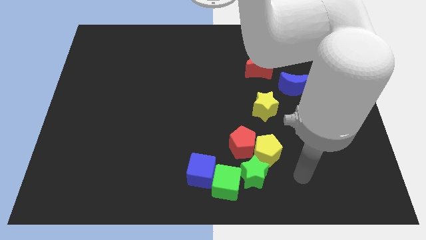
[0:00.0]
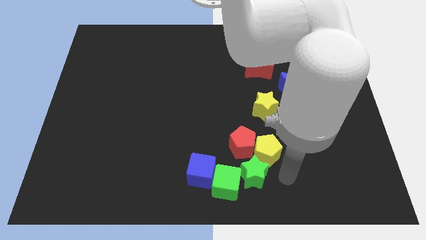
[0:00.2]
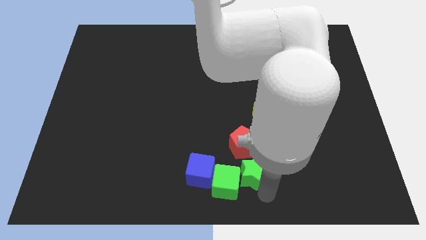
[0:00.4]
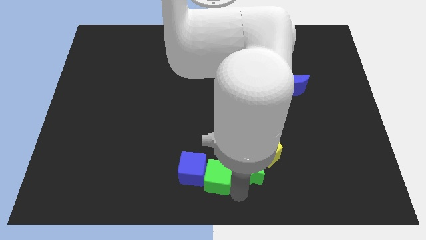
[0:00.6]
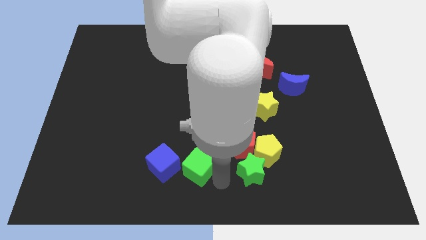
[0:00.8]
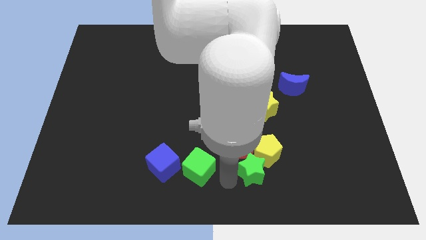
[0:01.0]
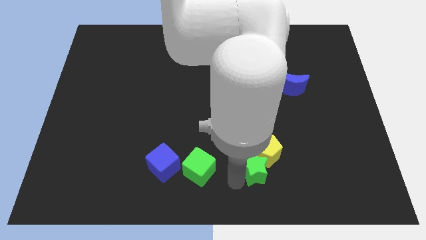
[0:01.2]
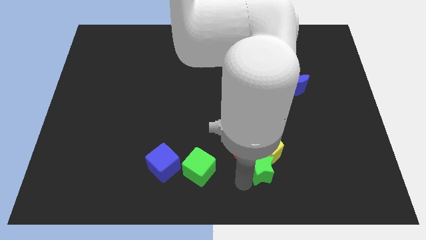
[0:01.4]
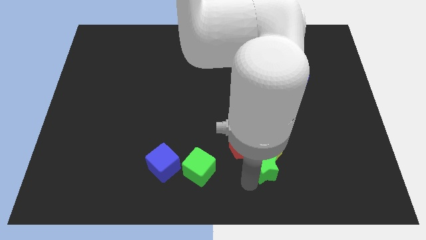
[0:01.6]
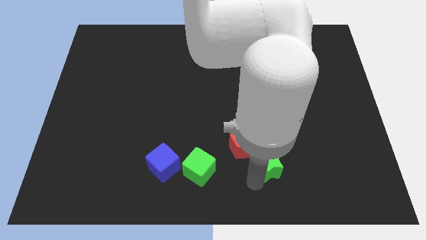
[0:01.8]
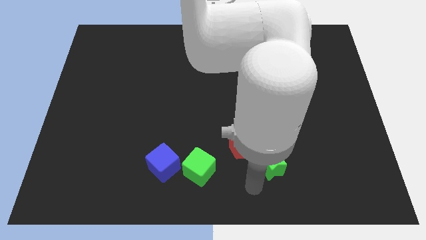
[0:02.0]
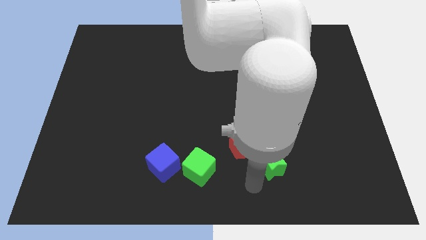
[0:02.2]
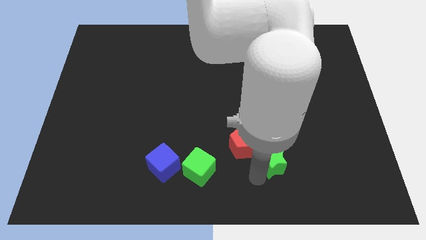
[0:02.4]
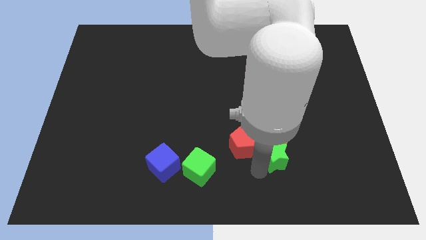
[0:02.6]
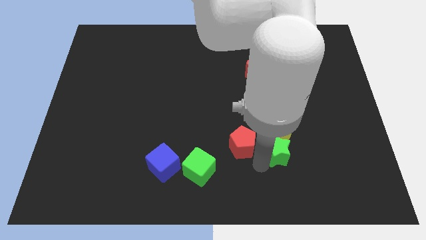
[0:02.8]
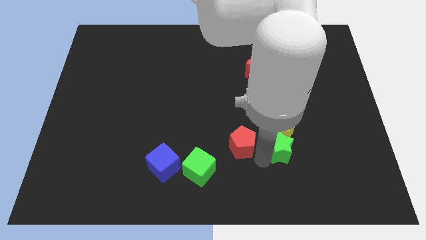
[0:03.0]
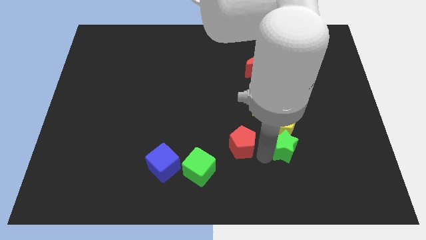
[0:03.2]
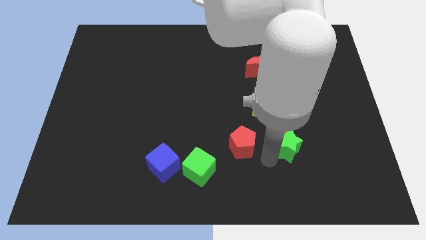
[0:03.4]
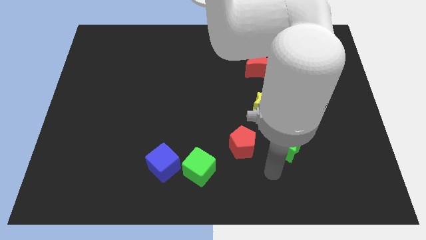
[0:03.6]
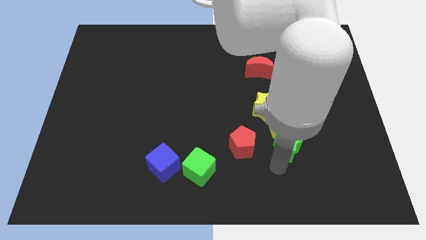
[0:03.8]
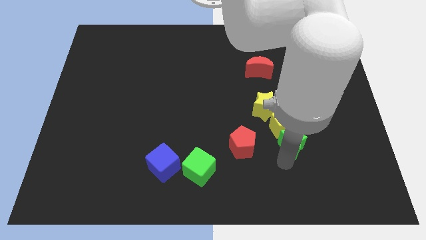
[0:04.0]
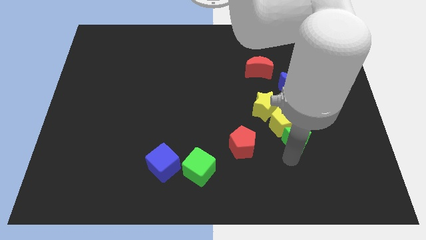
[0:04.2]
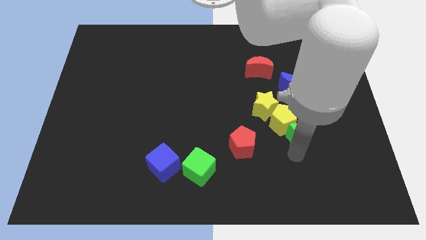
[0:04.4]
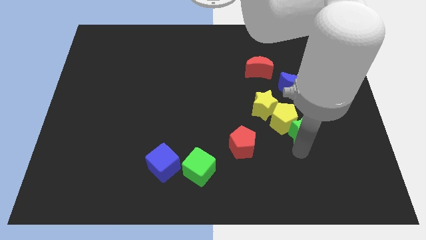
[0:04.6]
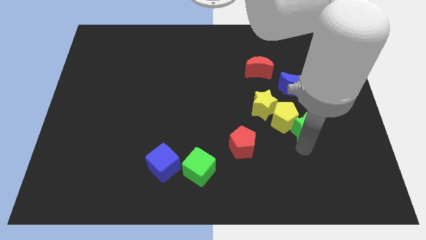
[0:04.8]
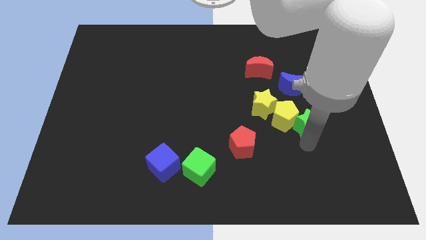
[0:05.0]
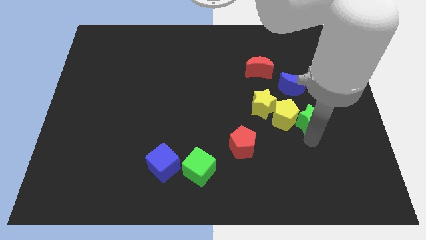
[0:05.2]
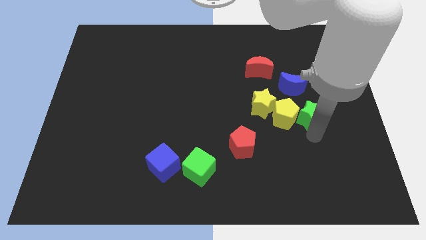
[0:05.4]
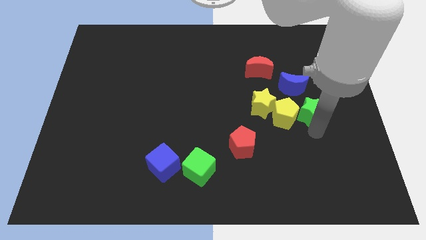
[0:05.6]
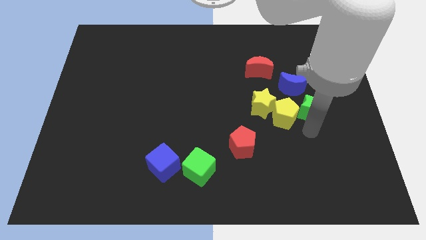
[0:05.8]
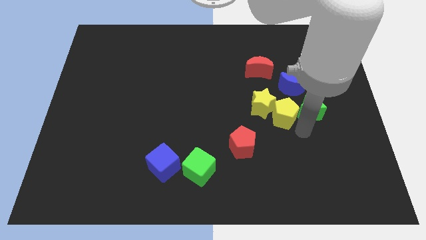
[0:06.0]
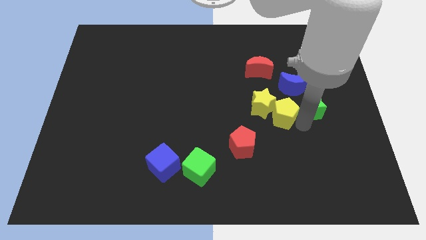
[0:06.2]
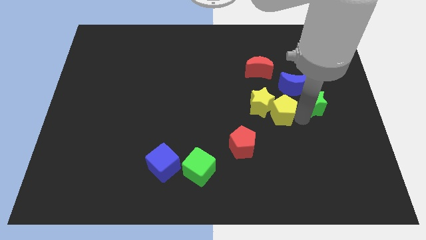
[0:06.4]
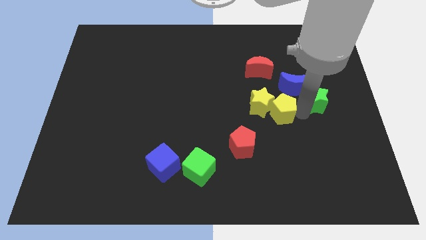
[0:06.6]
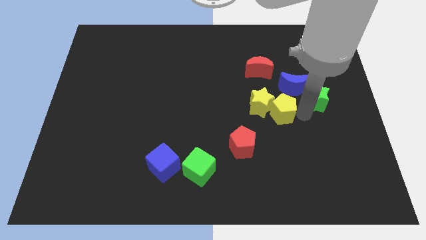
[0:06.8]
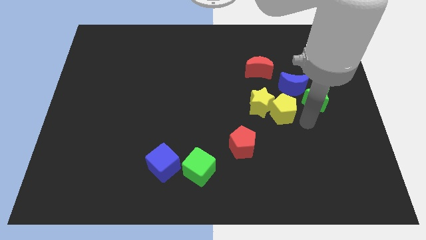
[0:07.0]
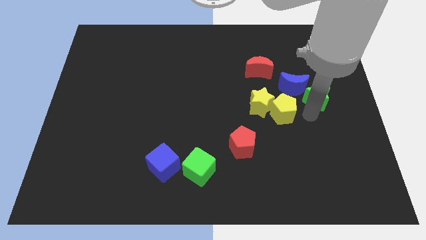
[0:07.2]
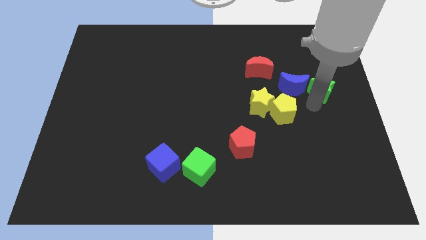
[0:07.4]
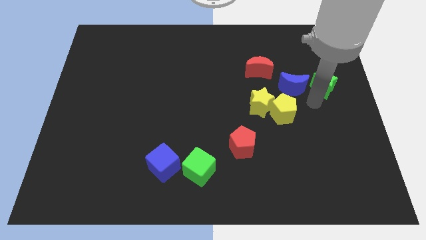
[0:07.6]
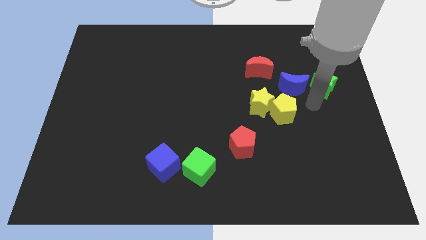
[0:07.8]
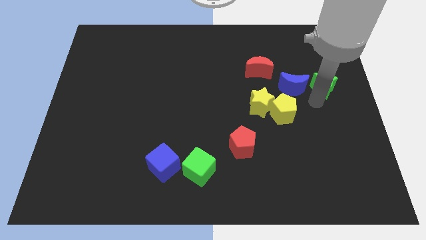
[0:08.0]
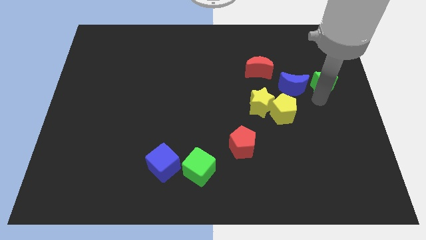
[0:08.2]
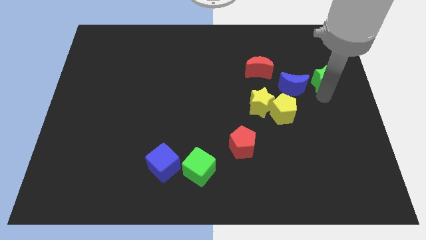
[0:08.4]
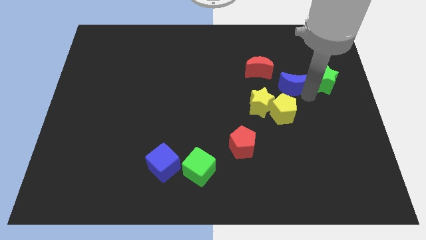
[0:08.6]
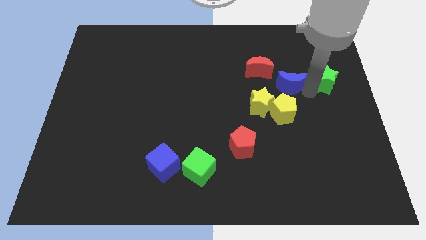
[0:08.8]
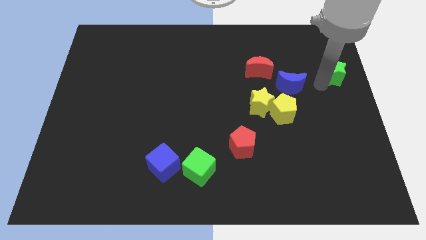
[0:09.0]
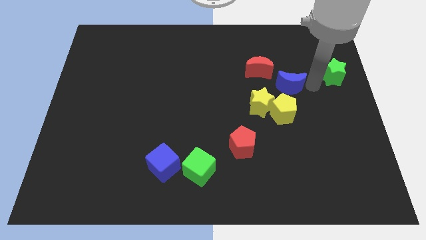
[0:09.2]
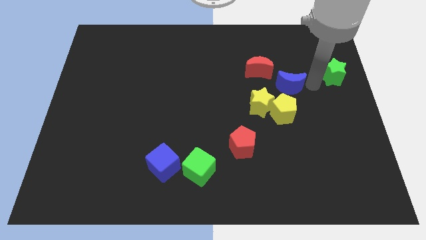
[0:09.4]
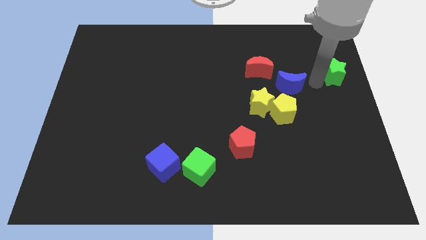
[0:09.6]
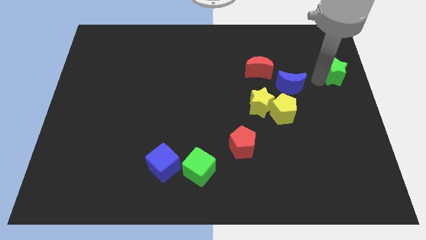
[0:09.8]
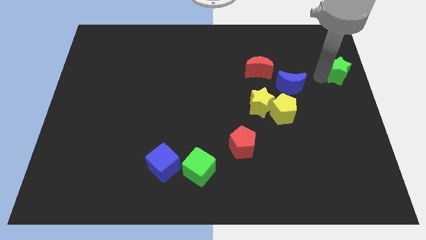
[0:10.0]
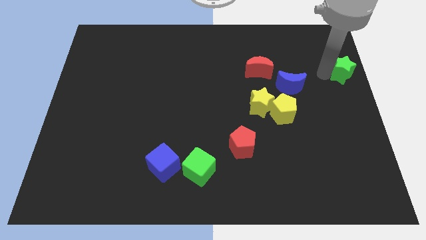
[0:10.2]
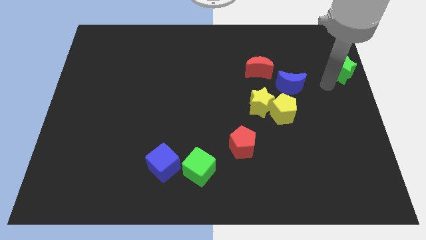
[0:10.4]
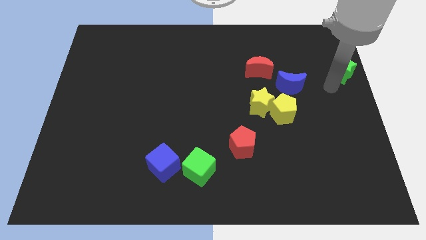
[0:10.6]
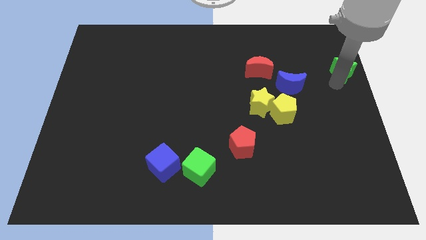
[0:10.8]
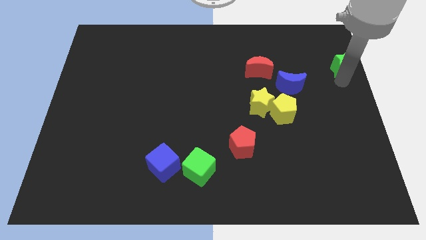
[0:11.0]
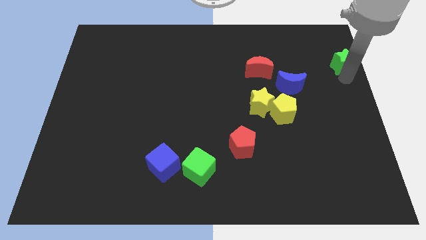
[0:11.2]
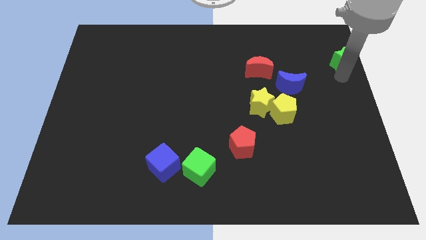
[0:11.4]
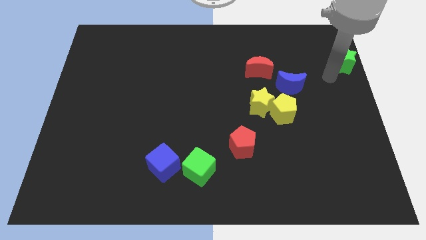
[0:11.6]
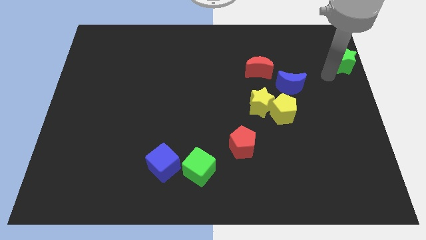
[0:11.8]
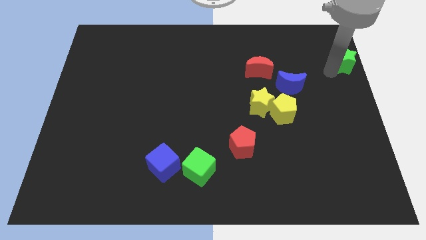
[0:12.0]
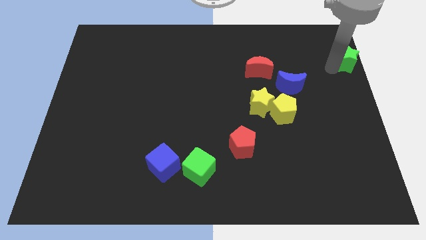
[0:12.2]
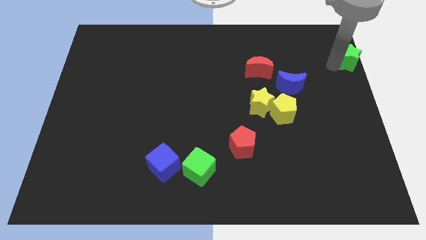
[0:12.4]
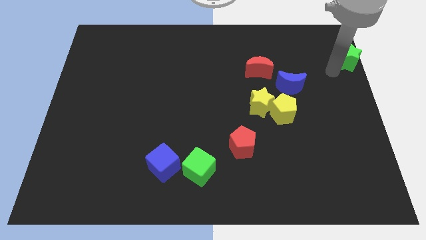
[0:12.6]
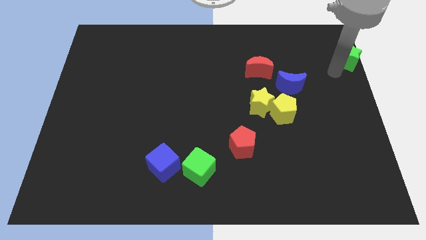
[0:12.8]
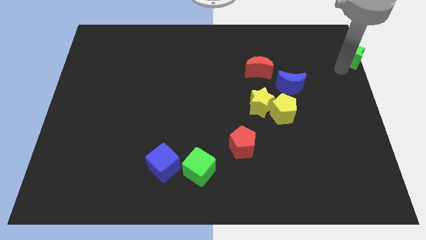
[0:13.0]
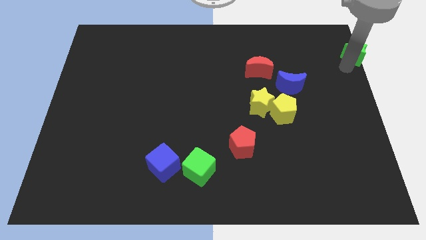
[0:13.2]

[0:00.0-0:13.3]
slide the green star to the top right of the board

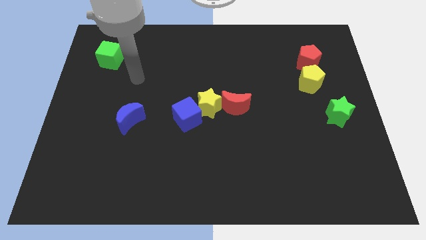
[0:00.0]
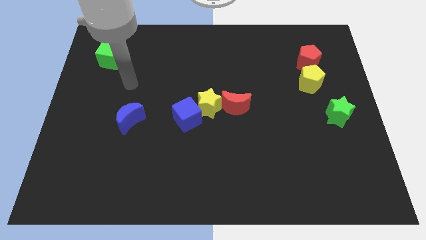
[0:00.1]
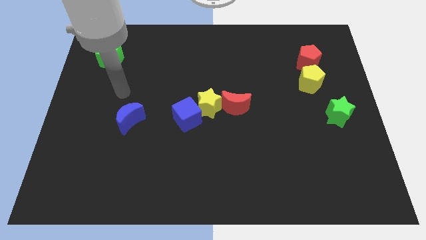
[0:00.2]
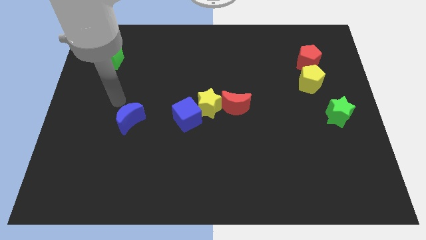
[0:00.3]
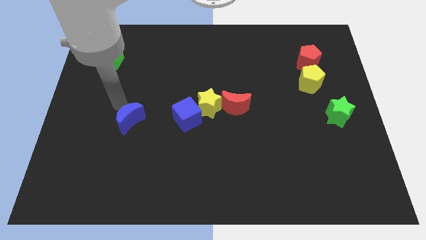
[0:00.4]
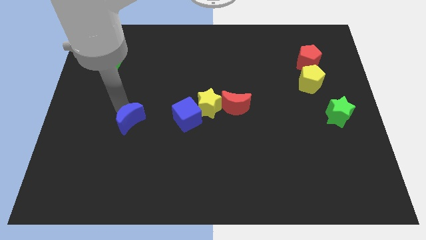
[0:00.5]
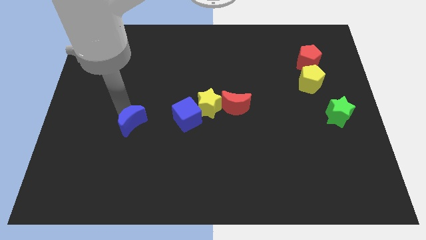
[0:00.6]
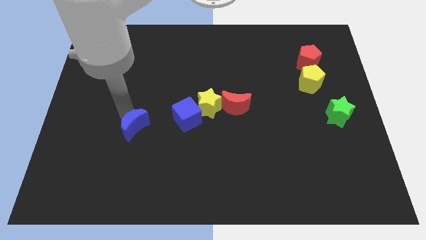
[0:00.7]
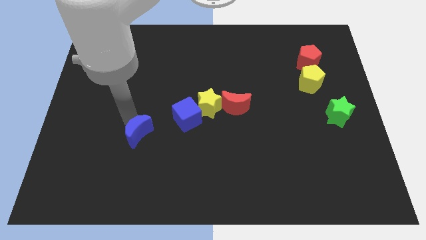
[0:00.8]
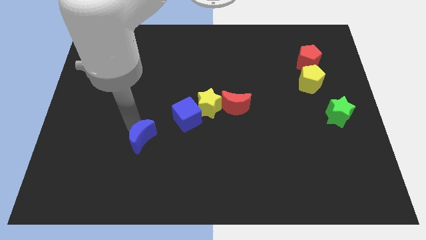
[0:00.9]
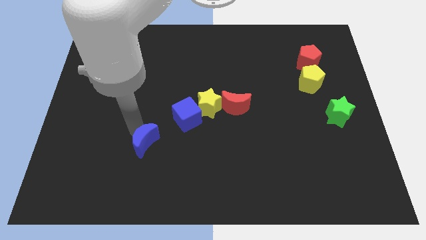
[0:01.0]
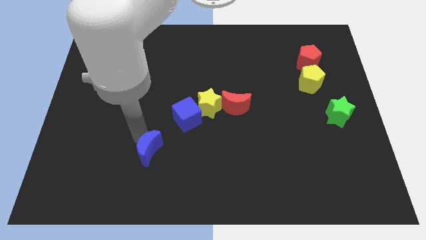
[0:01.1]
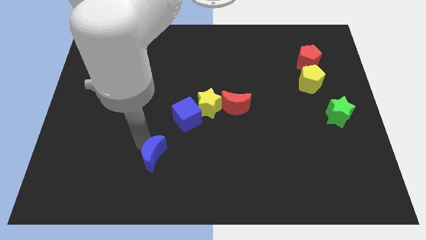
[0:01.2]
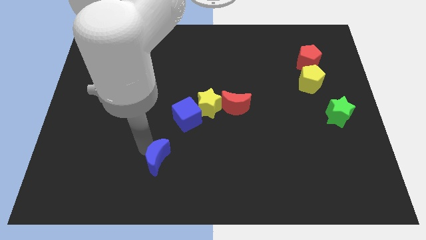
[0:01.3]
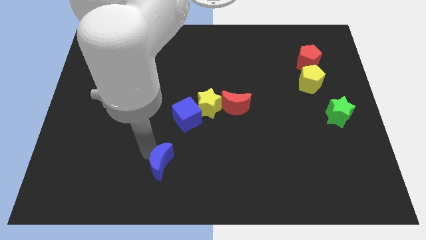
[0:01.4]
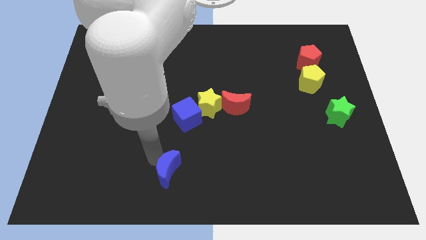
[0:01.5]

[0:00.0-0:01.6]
move the blue moon to the bottom side
